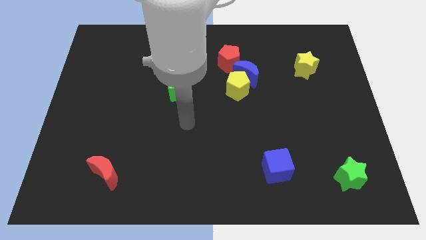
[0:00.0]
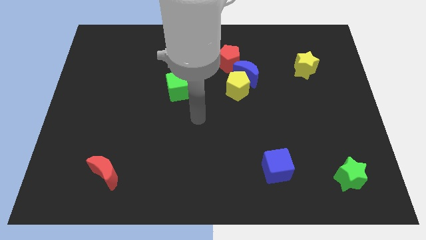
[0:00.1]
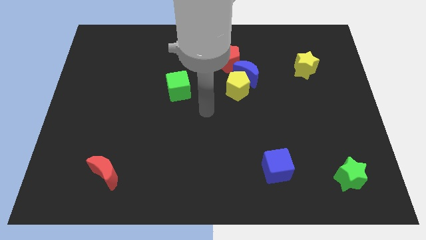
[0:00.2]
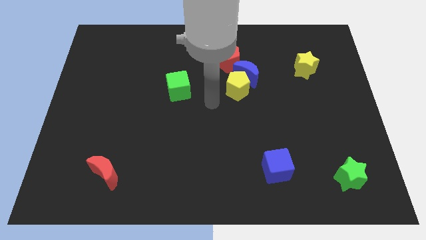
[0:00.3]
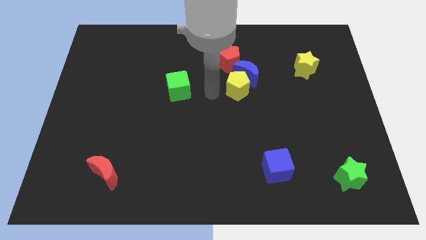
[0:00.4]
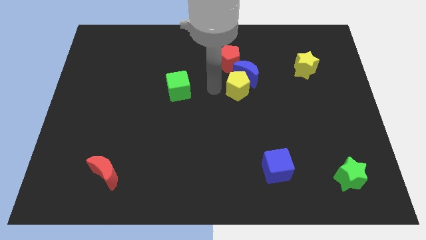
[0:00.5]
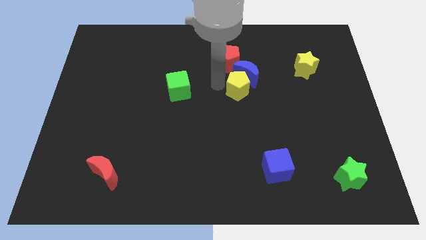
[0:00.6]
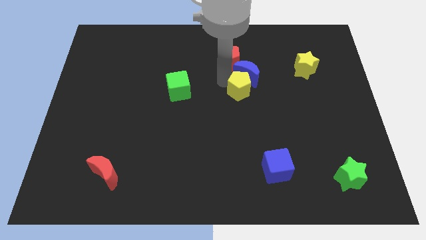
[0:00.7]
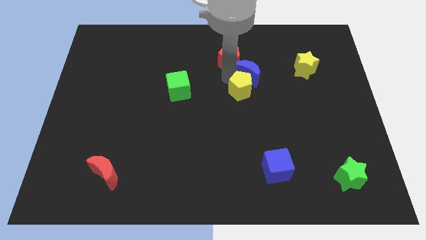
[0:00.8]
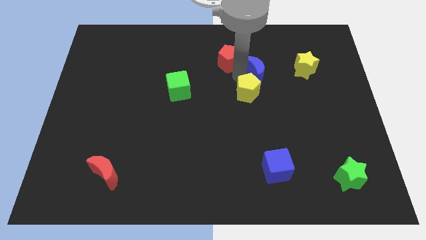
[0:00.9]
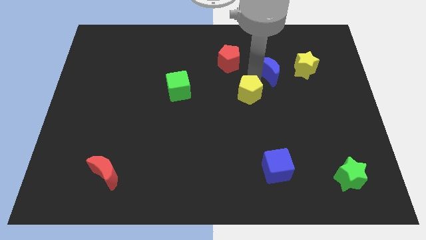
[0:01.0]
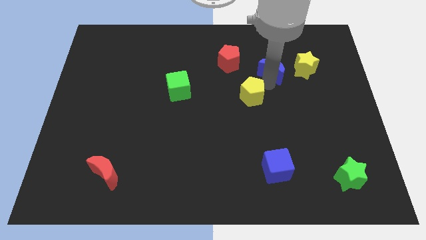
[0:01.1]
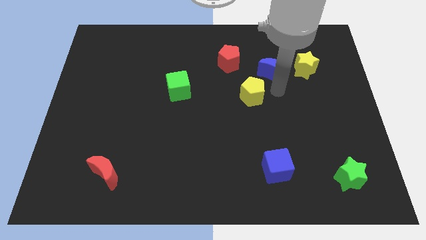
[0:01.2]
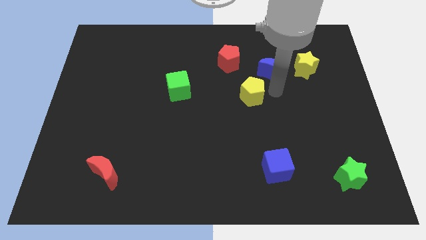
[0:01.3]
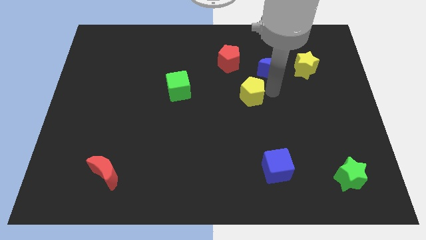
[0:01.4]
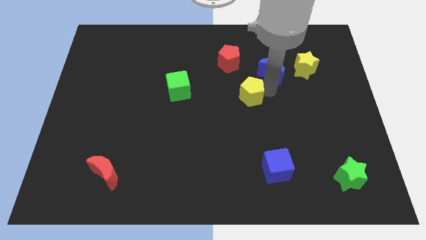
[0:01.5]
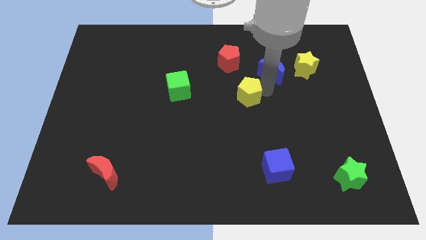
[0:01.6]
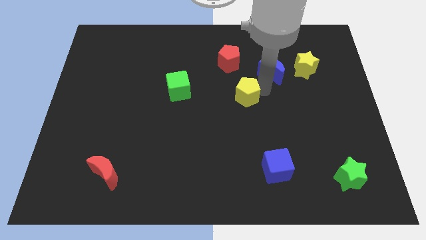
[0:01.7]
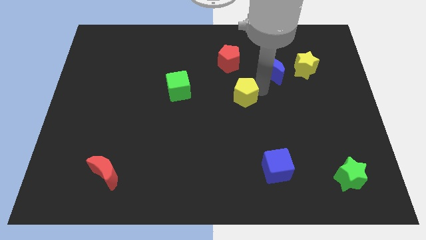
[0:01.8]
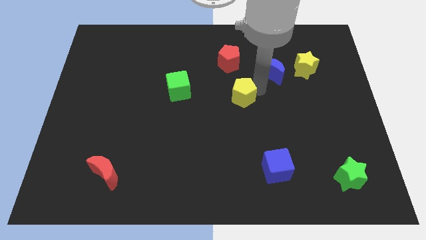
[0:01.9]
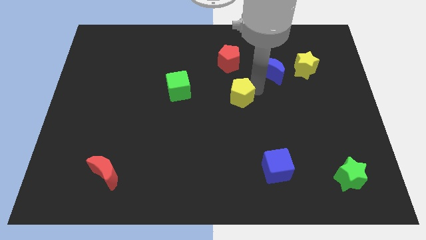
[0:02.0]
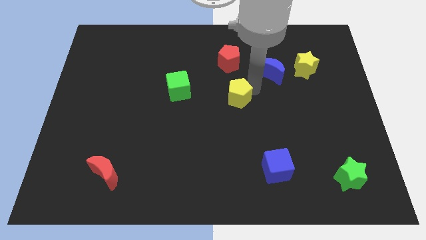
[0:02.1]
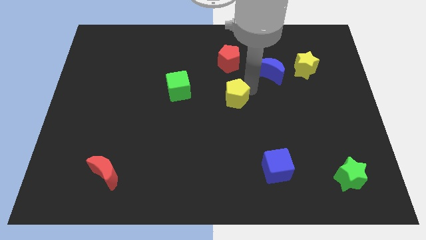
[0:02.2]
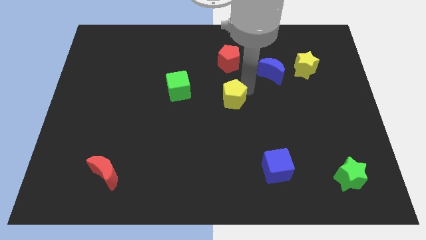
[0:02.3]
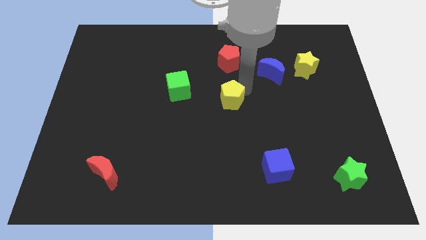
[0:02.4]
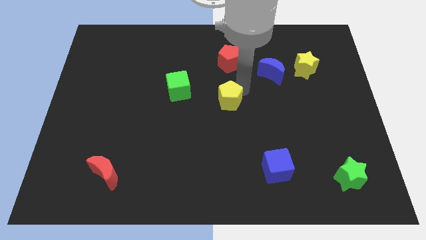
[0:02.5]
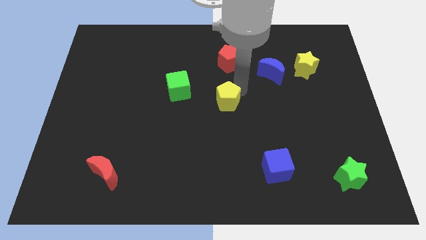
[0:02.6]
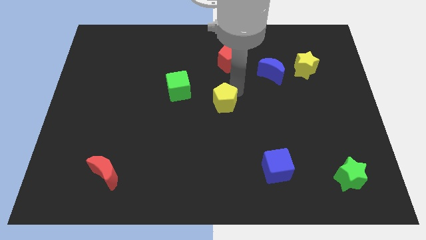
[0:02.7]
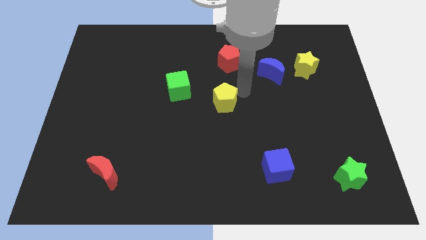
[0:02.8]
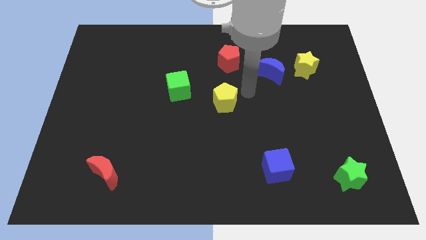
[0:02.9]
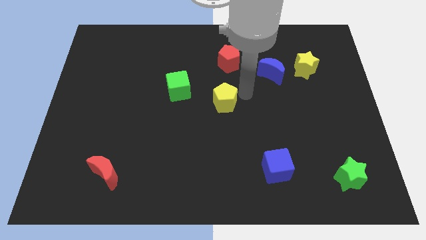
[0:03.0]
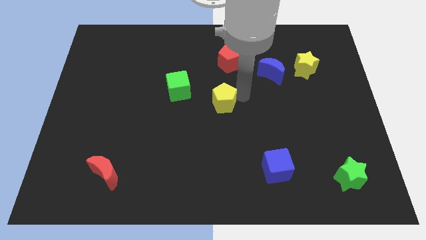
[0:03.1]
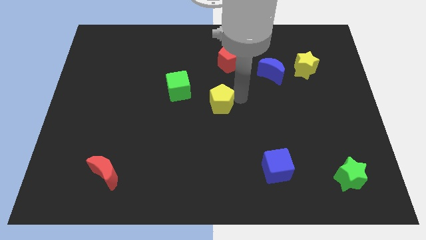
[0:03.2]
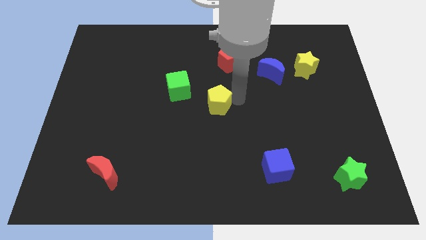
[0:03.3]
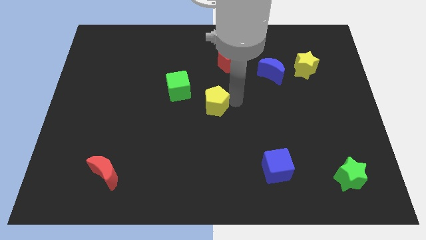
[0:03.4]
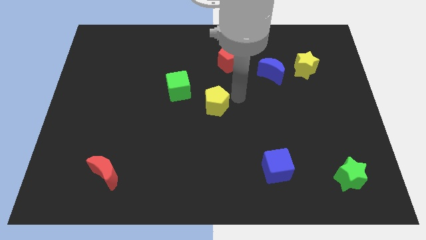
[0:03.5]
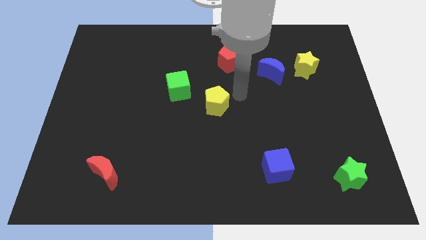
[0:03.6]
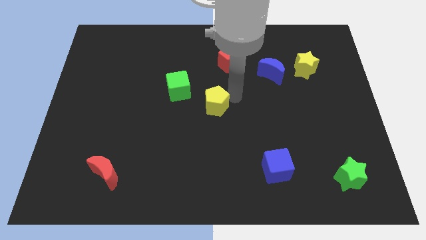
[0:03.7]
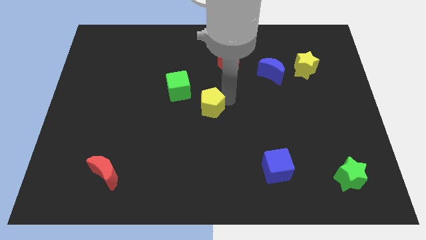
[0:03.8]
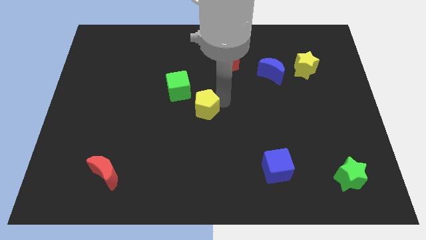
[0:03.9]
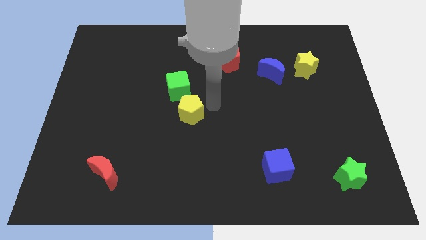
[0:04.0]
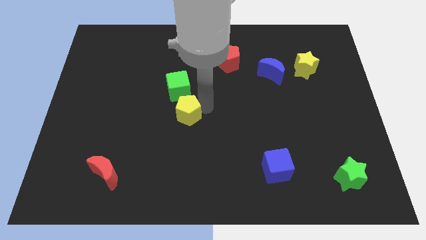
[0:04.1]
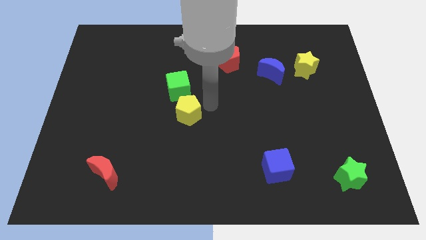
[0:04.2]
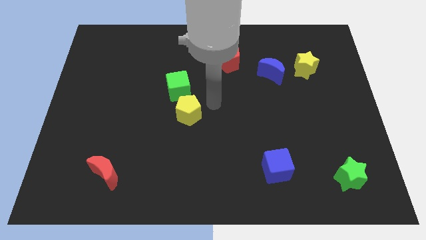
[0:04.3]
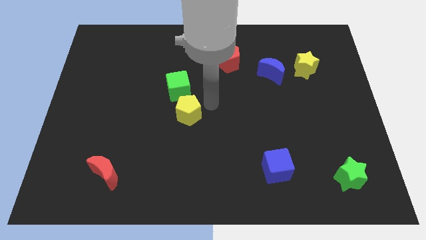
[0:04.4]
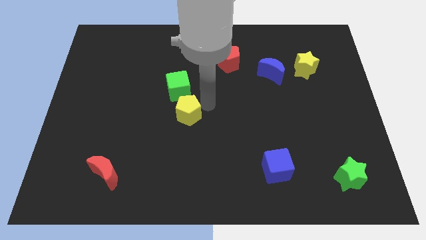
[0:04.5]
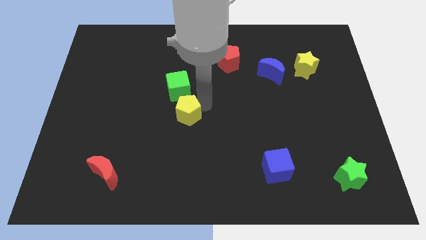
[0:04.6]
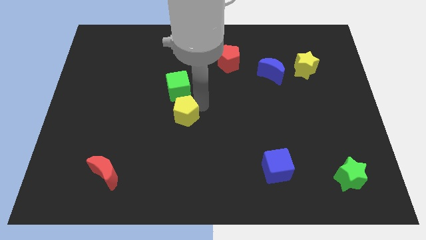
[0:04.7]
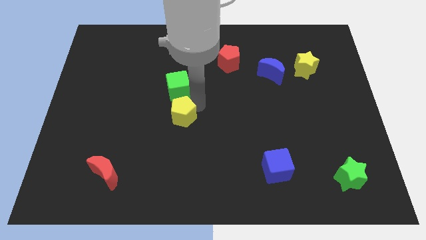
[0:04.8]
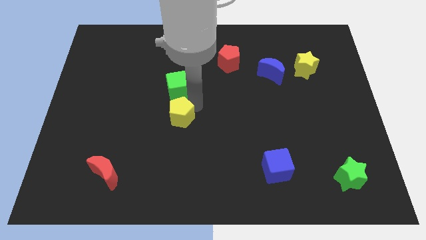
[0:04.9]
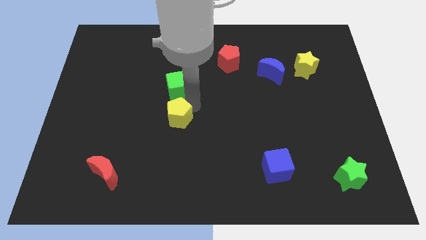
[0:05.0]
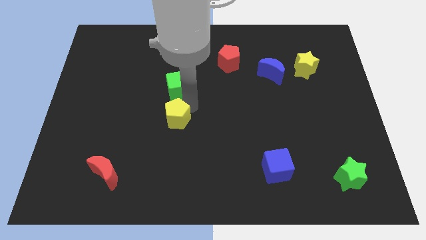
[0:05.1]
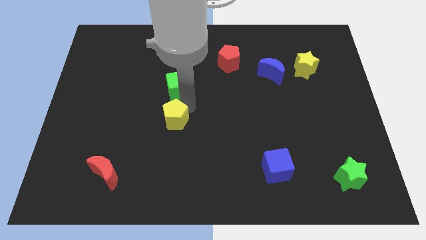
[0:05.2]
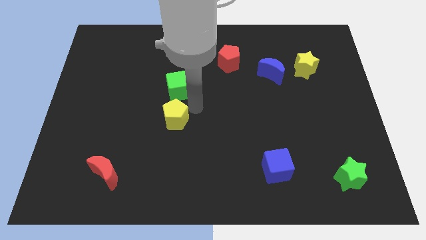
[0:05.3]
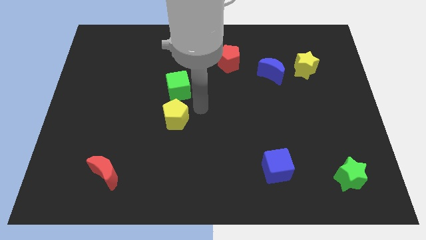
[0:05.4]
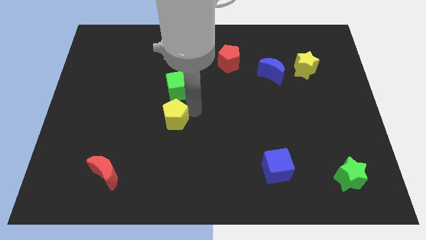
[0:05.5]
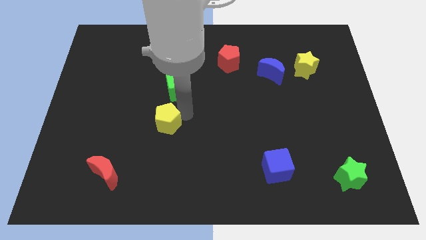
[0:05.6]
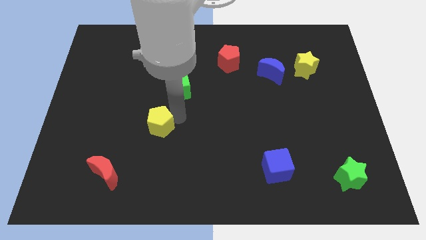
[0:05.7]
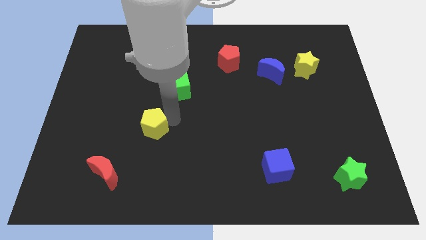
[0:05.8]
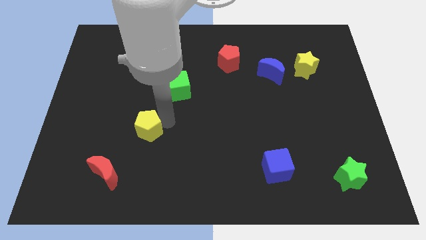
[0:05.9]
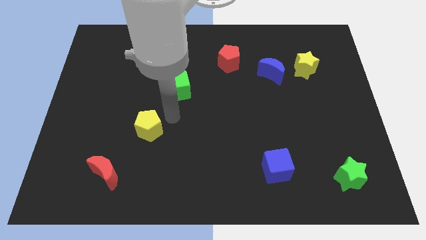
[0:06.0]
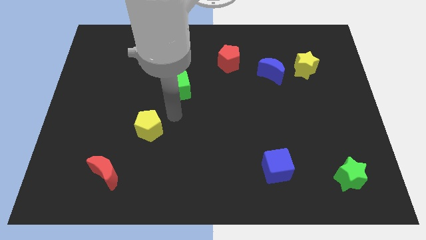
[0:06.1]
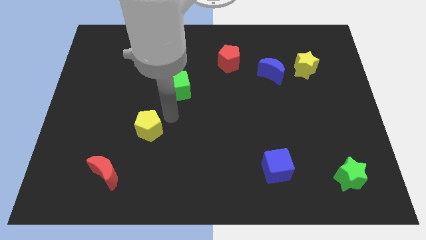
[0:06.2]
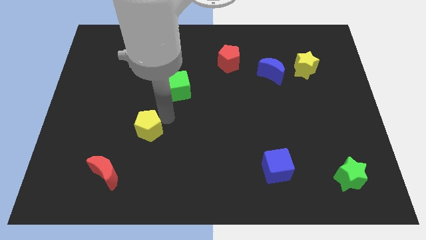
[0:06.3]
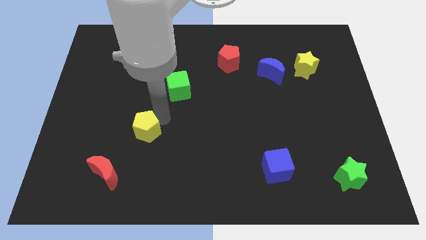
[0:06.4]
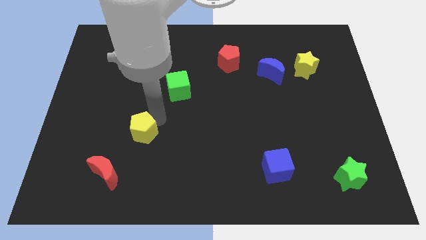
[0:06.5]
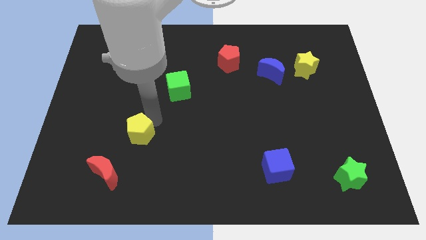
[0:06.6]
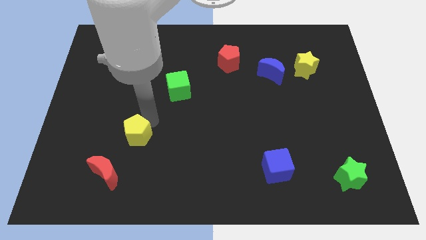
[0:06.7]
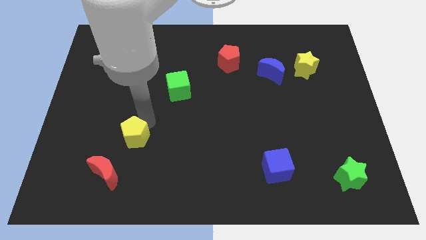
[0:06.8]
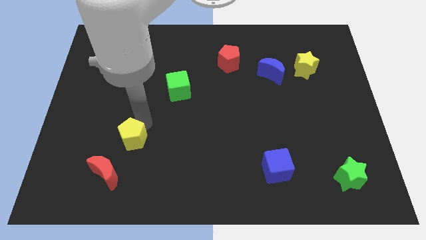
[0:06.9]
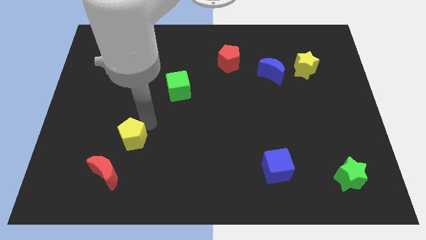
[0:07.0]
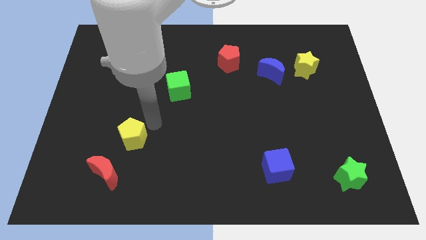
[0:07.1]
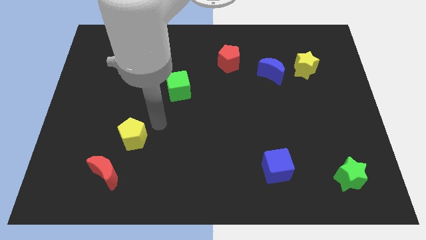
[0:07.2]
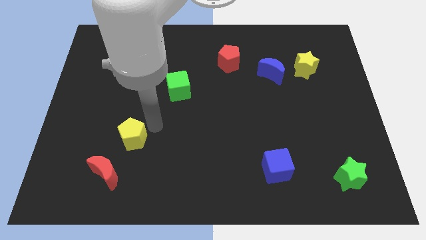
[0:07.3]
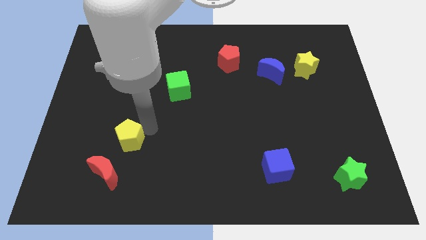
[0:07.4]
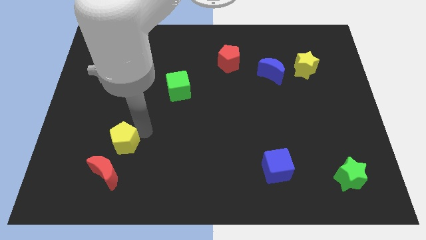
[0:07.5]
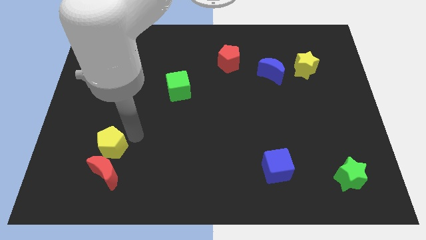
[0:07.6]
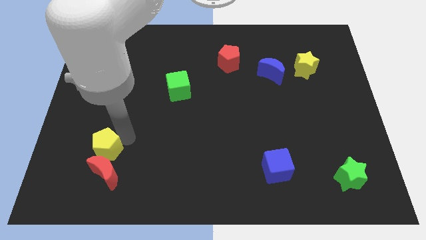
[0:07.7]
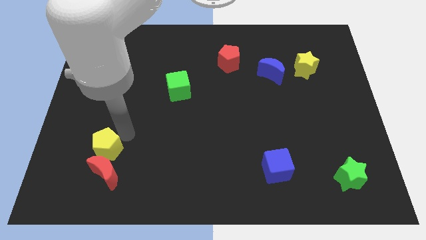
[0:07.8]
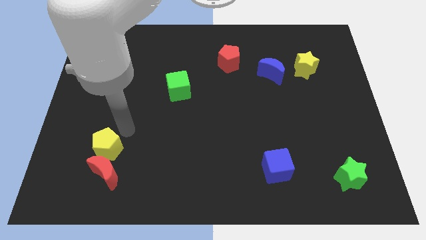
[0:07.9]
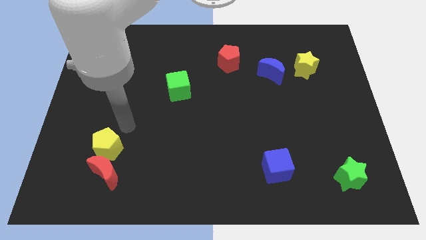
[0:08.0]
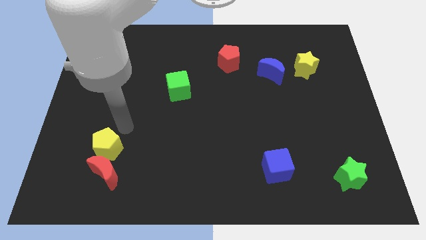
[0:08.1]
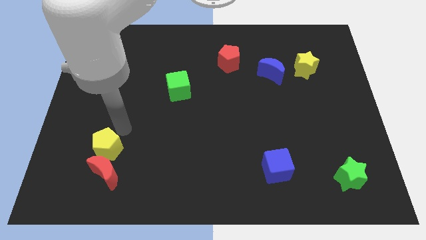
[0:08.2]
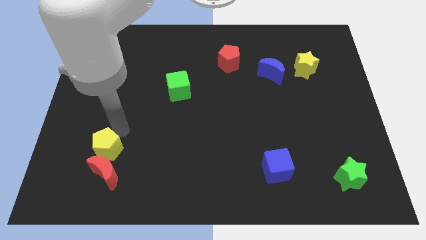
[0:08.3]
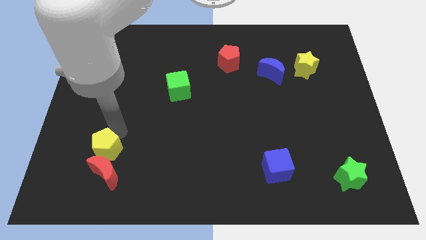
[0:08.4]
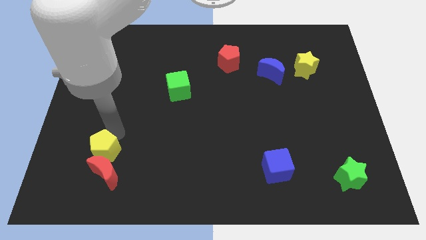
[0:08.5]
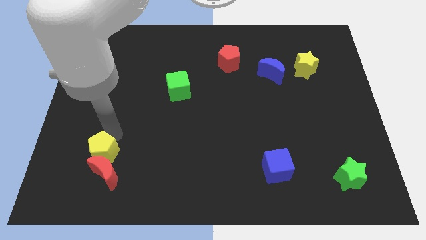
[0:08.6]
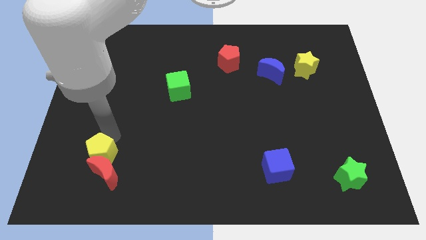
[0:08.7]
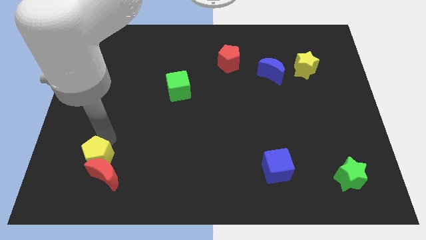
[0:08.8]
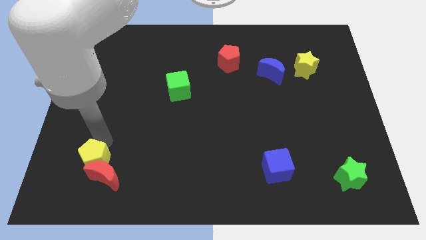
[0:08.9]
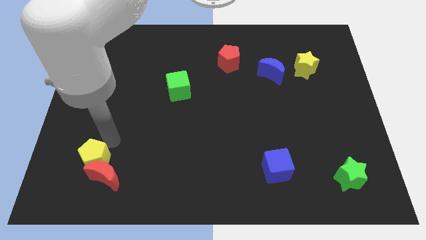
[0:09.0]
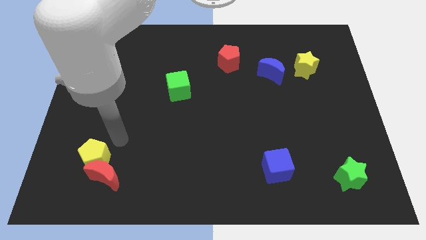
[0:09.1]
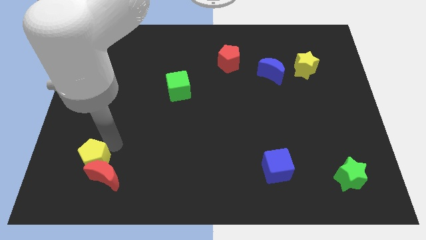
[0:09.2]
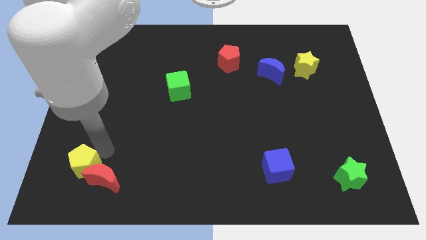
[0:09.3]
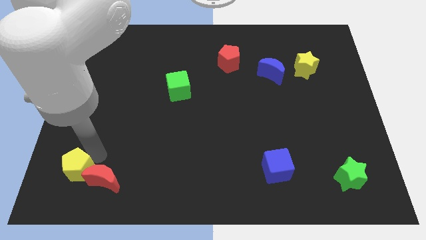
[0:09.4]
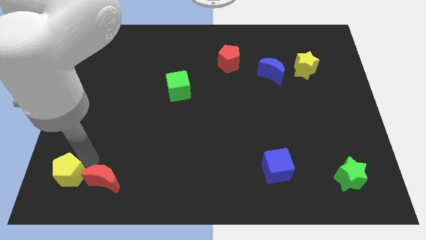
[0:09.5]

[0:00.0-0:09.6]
slide the yellow pentagon to the bottom left corner
